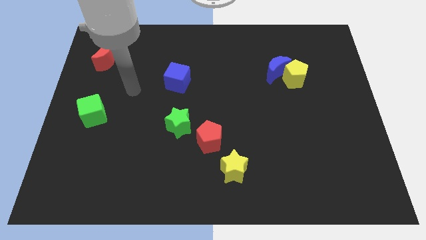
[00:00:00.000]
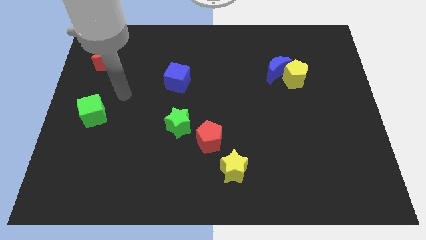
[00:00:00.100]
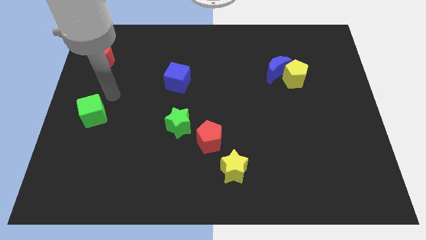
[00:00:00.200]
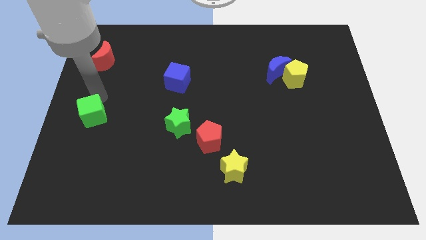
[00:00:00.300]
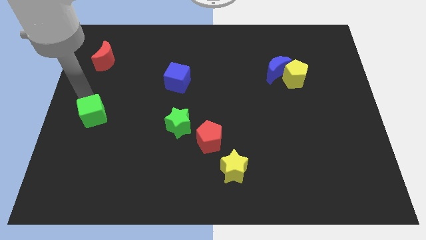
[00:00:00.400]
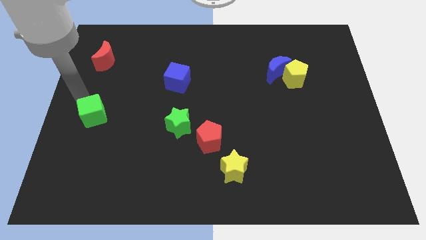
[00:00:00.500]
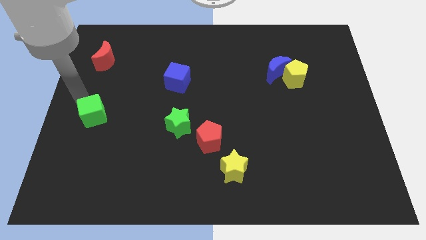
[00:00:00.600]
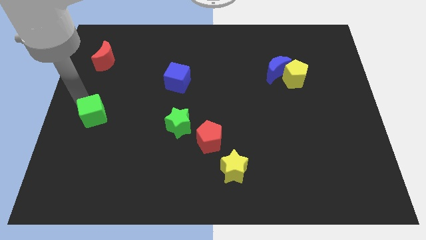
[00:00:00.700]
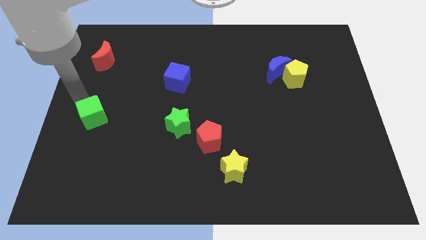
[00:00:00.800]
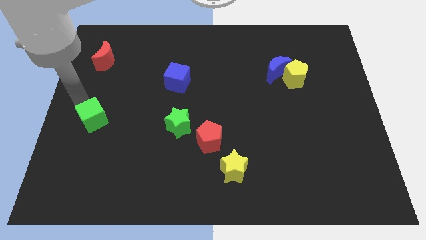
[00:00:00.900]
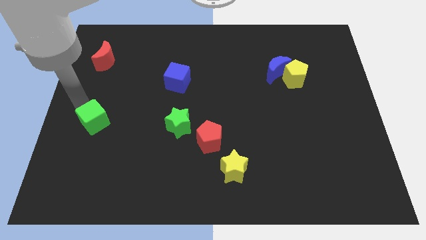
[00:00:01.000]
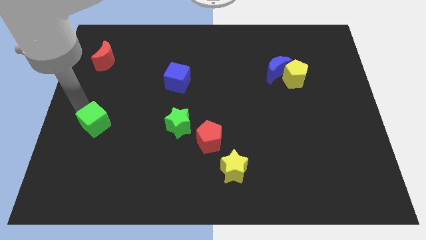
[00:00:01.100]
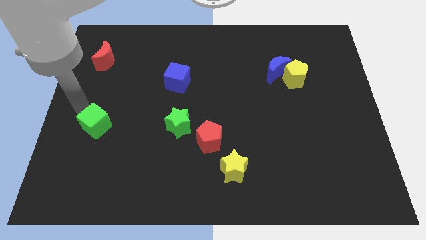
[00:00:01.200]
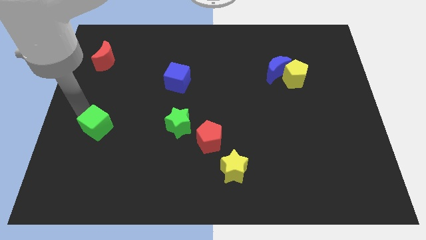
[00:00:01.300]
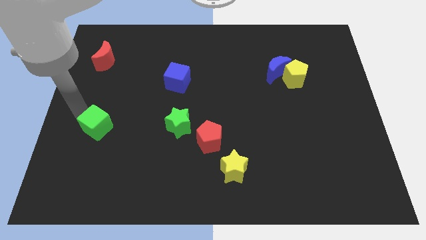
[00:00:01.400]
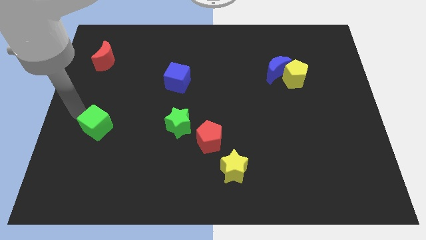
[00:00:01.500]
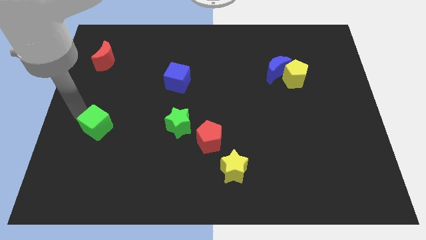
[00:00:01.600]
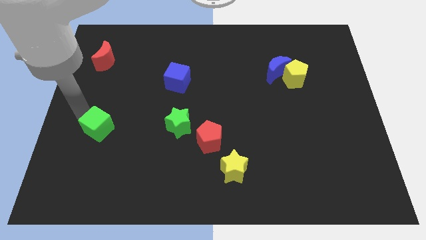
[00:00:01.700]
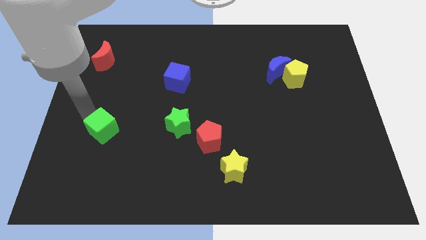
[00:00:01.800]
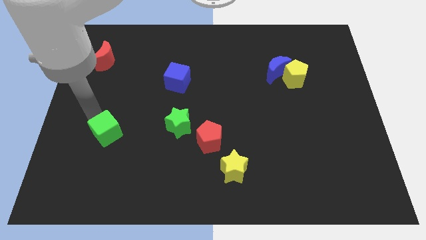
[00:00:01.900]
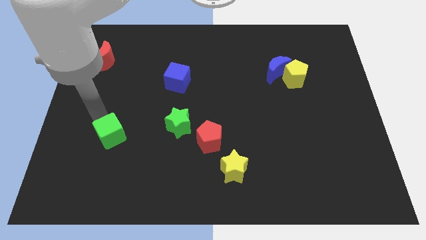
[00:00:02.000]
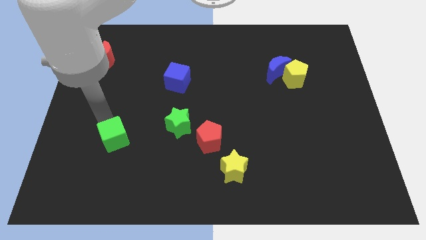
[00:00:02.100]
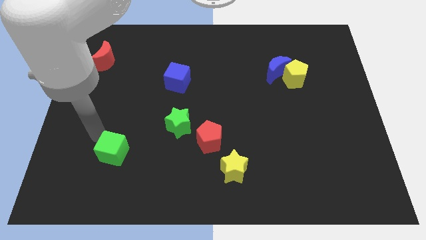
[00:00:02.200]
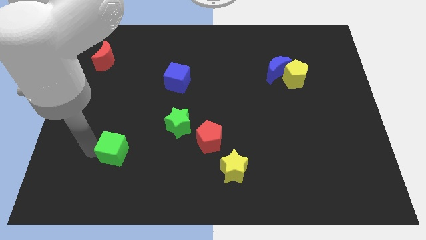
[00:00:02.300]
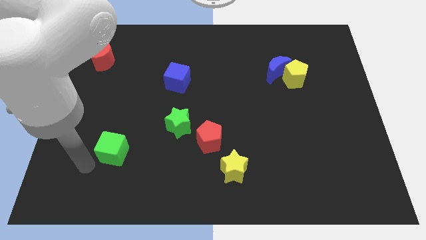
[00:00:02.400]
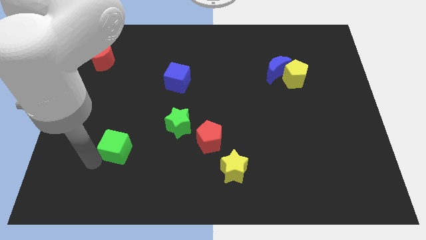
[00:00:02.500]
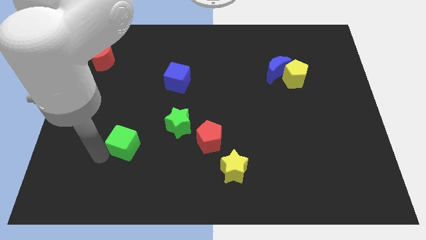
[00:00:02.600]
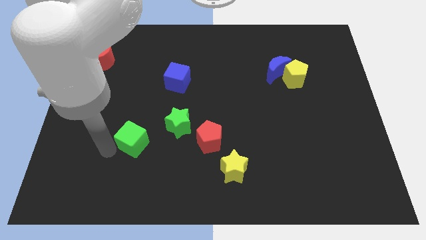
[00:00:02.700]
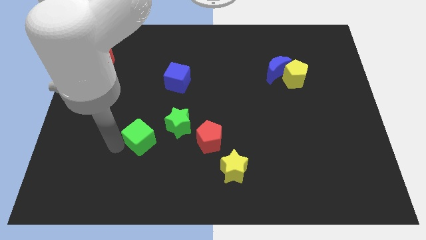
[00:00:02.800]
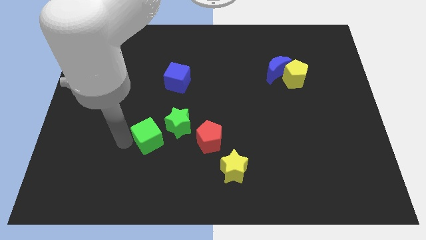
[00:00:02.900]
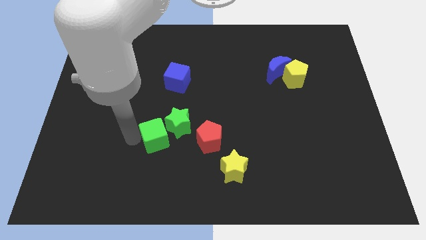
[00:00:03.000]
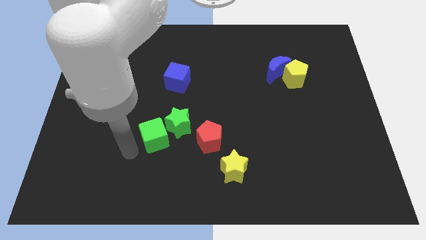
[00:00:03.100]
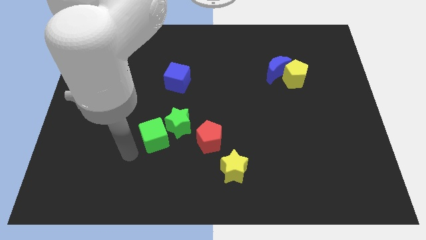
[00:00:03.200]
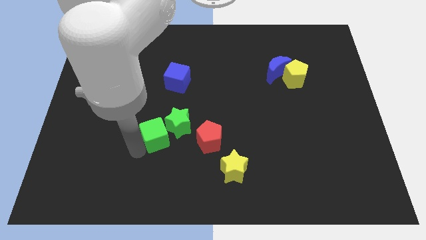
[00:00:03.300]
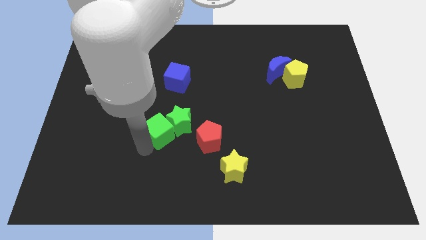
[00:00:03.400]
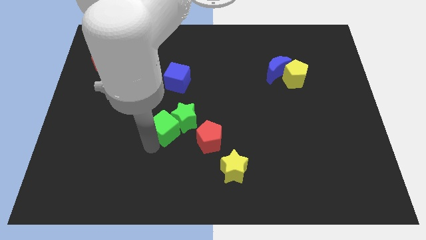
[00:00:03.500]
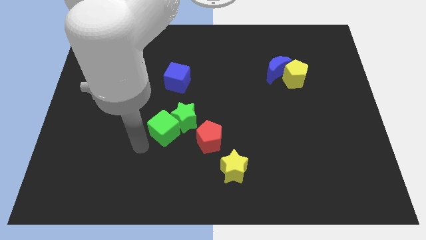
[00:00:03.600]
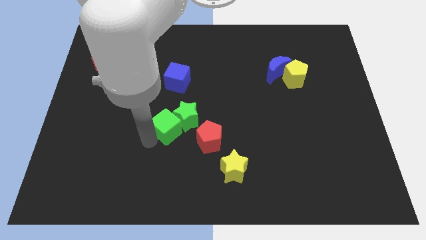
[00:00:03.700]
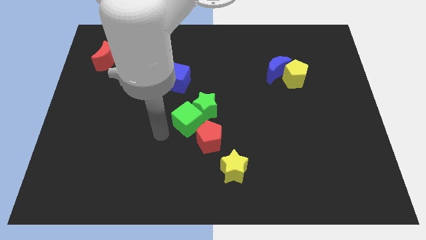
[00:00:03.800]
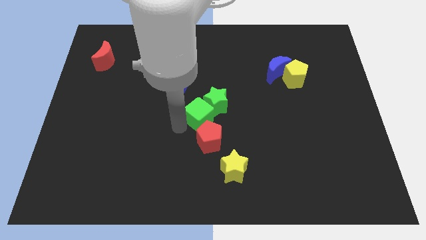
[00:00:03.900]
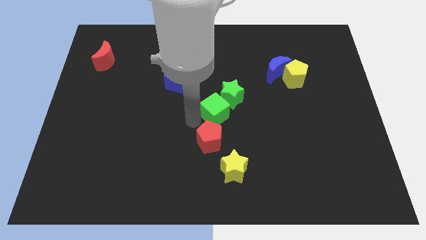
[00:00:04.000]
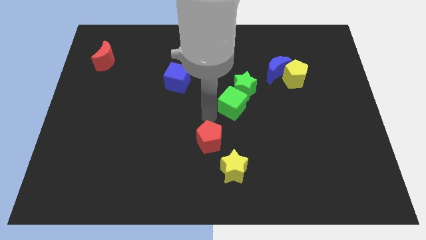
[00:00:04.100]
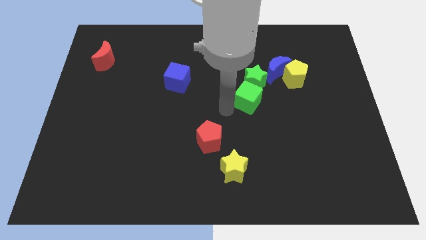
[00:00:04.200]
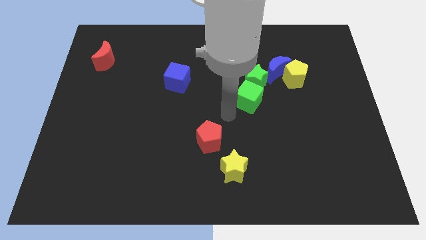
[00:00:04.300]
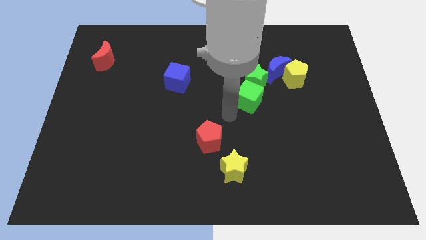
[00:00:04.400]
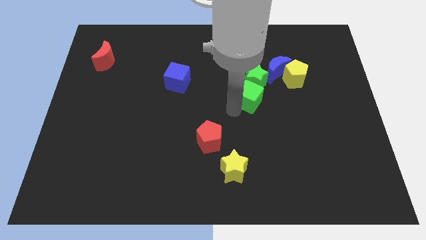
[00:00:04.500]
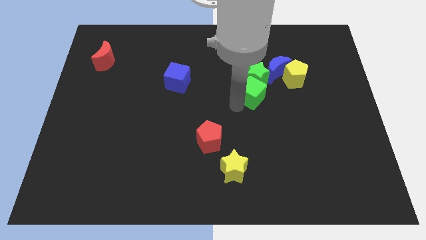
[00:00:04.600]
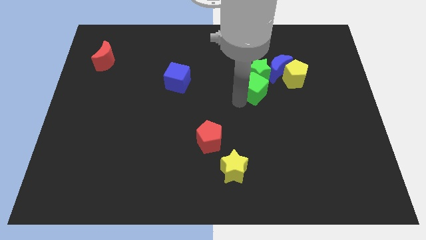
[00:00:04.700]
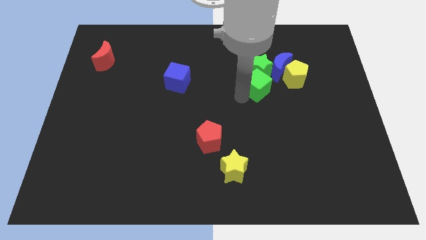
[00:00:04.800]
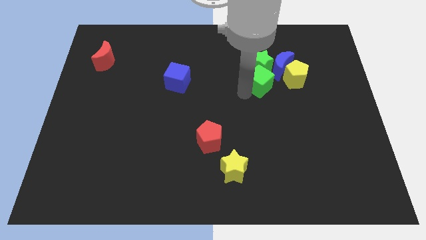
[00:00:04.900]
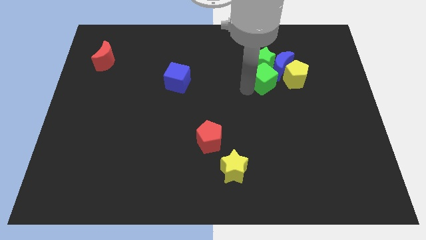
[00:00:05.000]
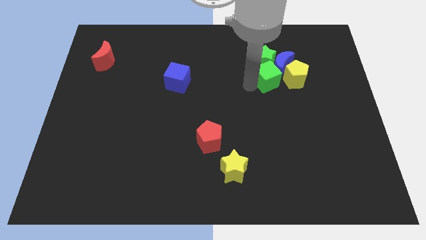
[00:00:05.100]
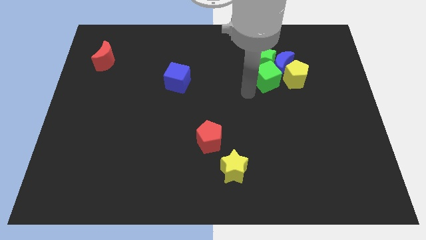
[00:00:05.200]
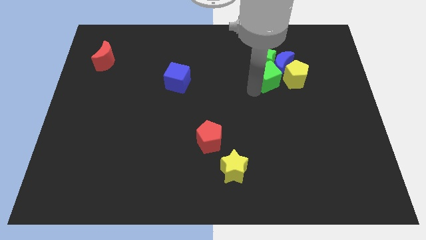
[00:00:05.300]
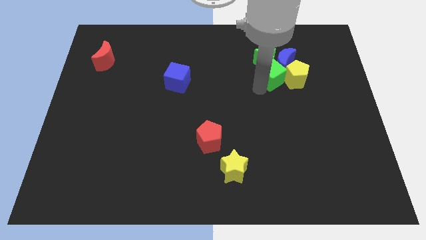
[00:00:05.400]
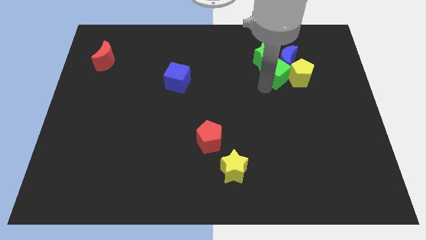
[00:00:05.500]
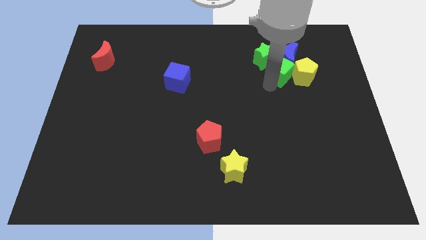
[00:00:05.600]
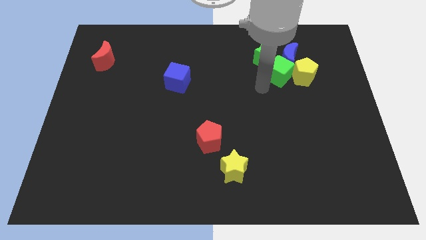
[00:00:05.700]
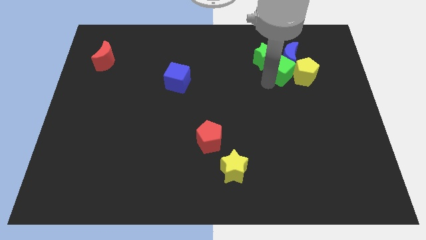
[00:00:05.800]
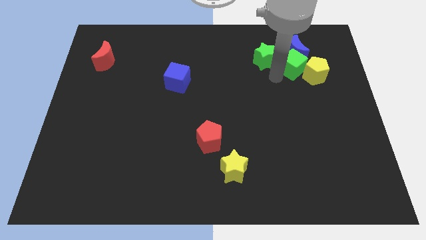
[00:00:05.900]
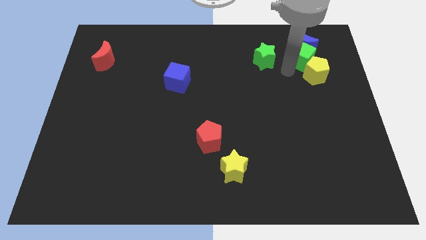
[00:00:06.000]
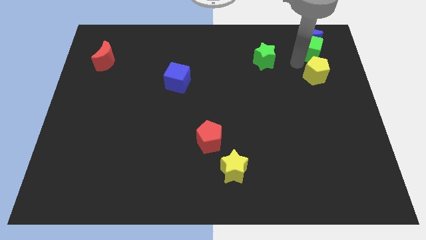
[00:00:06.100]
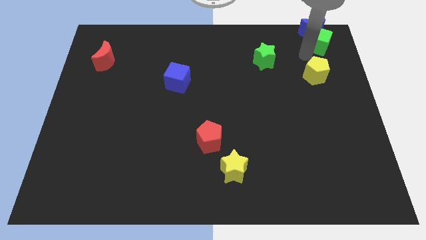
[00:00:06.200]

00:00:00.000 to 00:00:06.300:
push the green cube to the top right corner
